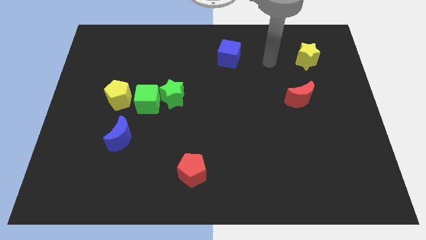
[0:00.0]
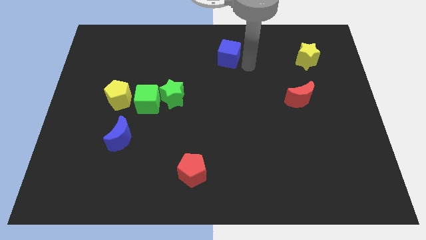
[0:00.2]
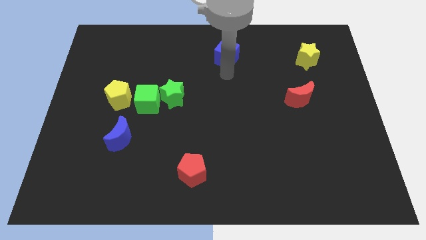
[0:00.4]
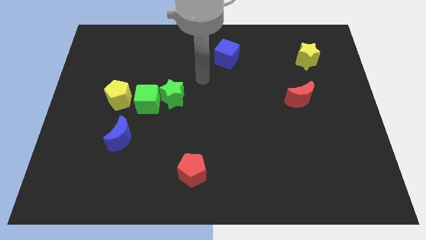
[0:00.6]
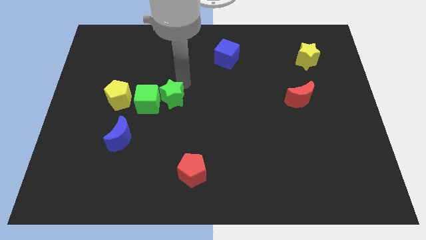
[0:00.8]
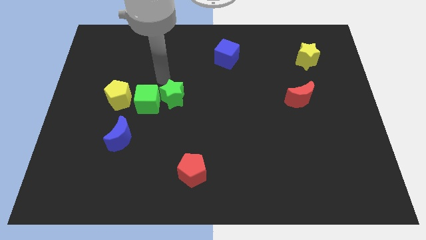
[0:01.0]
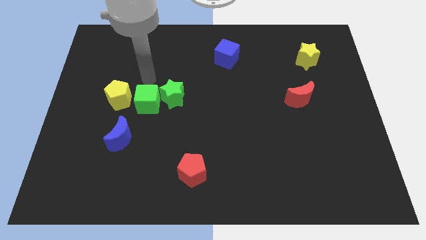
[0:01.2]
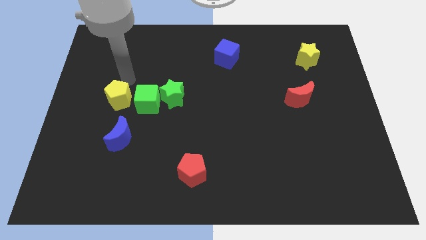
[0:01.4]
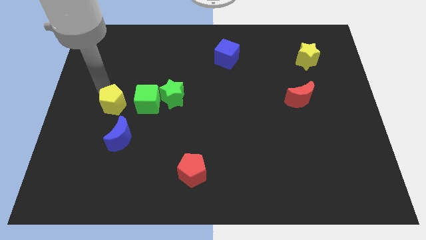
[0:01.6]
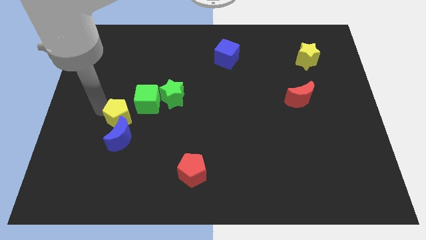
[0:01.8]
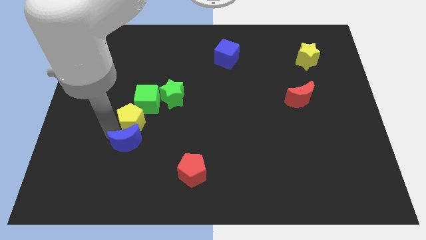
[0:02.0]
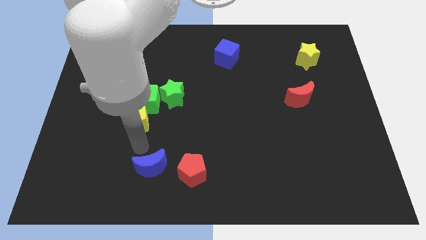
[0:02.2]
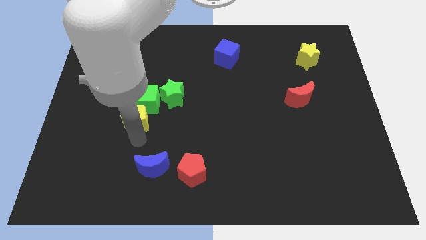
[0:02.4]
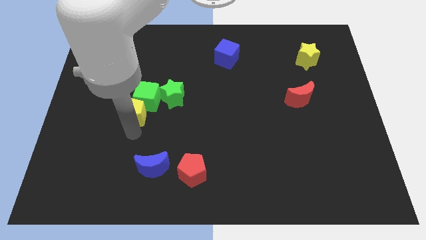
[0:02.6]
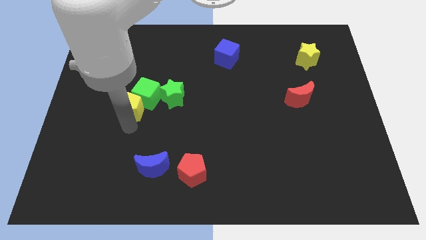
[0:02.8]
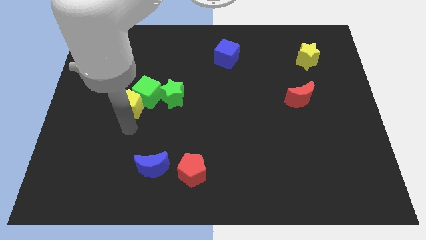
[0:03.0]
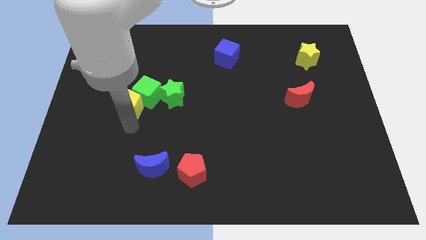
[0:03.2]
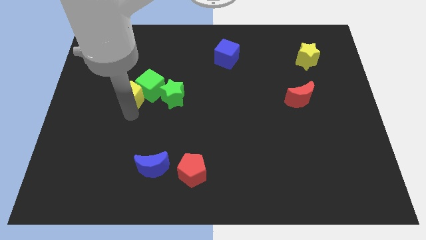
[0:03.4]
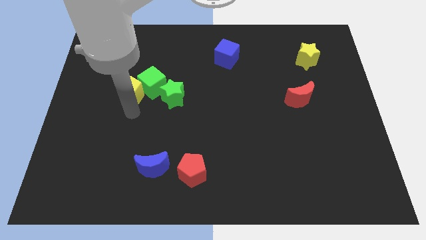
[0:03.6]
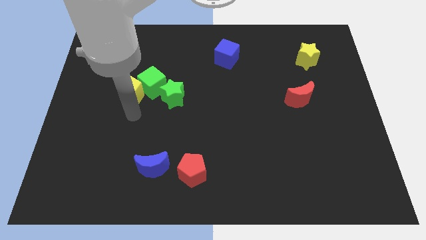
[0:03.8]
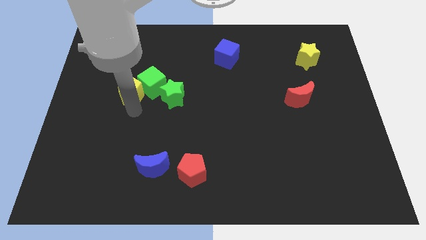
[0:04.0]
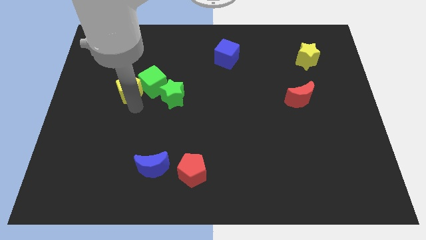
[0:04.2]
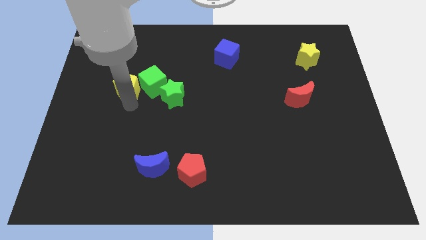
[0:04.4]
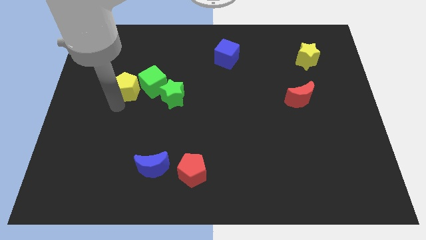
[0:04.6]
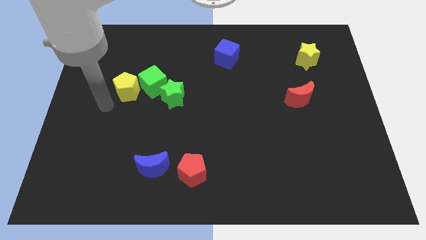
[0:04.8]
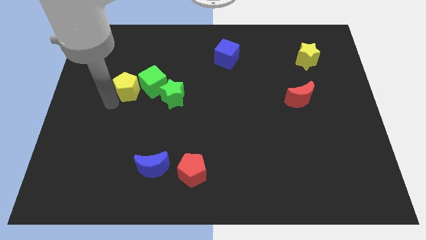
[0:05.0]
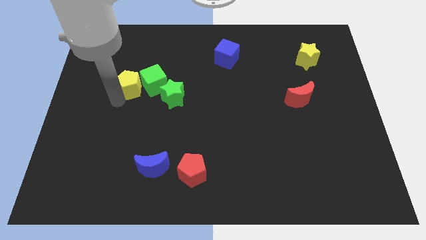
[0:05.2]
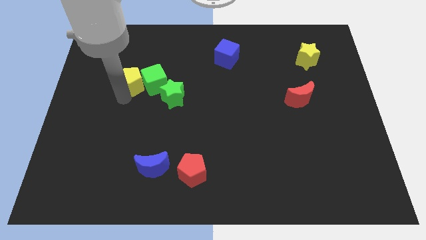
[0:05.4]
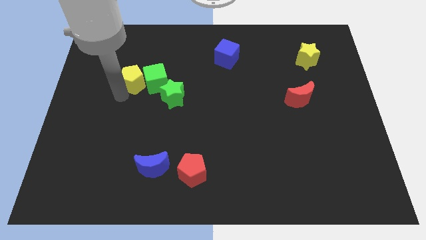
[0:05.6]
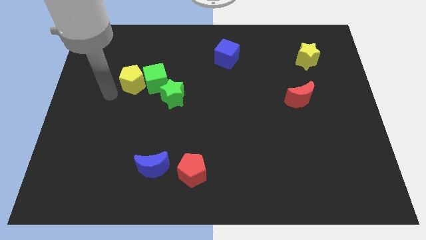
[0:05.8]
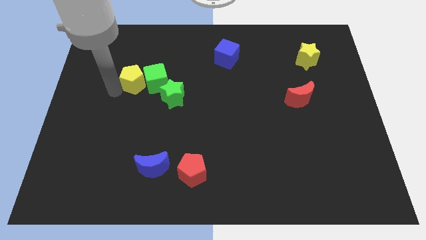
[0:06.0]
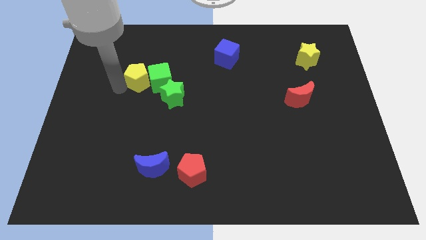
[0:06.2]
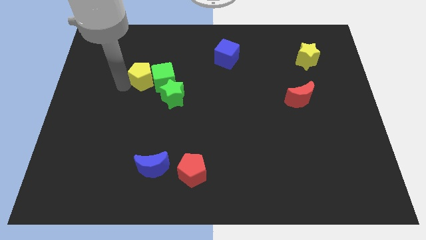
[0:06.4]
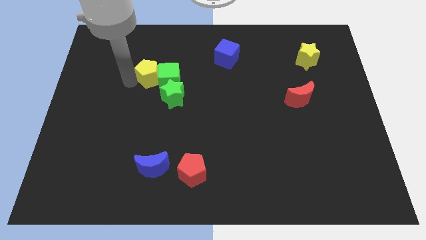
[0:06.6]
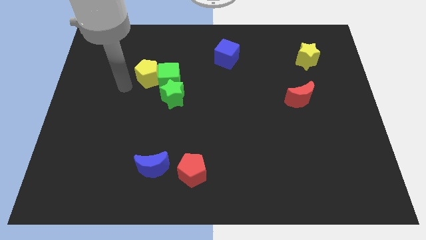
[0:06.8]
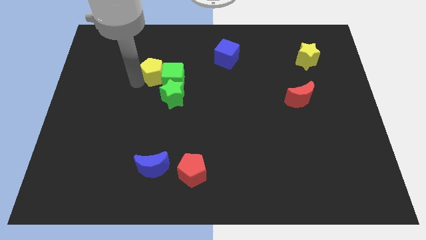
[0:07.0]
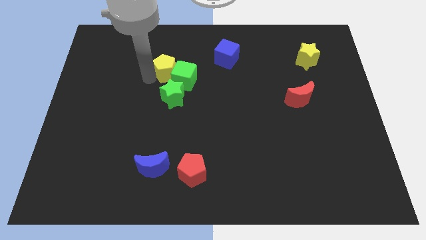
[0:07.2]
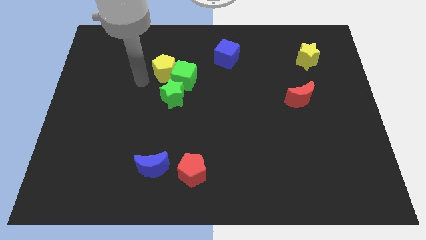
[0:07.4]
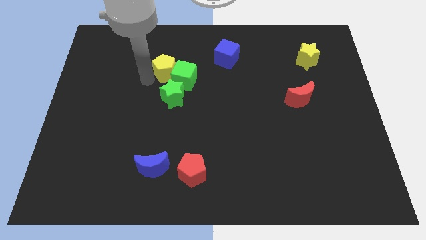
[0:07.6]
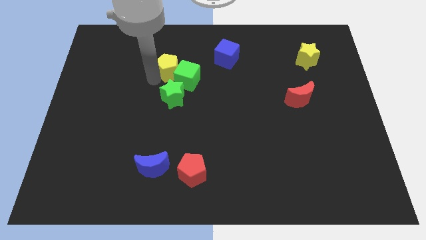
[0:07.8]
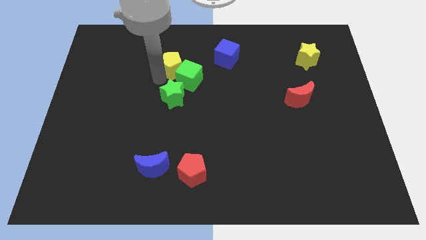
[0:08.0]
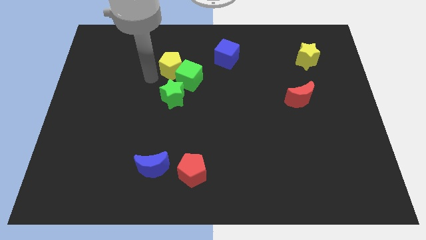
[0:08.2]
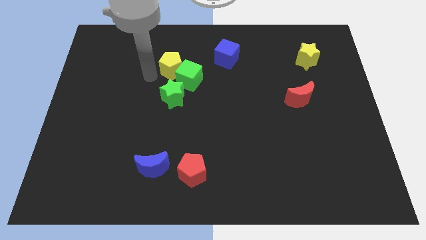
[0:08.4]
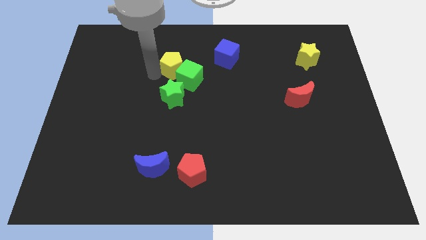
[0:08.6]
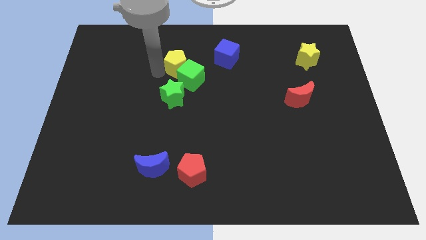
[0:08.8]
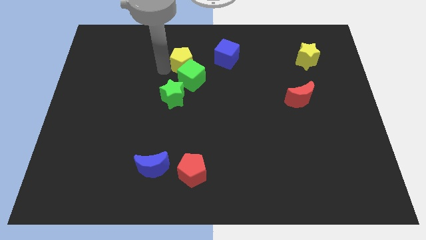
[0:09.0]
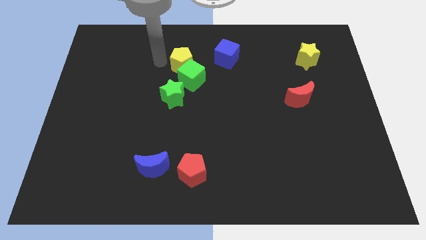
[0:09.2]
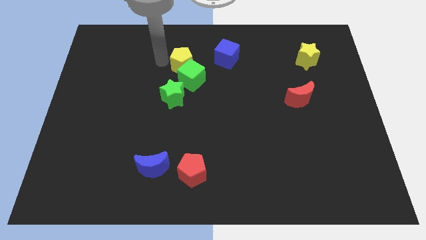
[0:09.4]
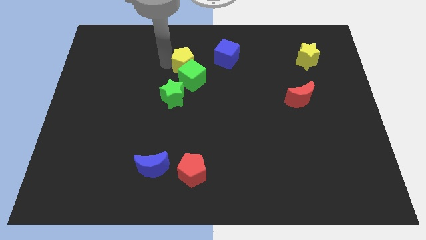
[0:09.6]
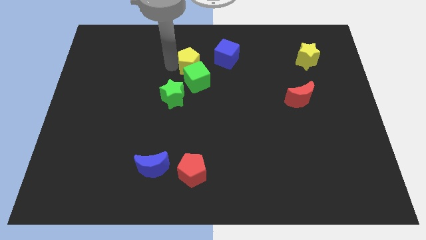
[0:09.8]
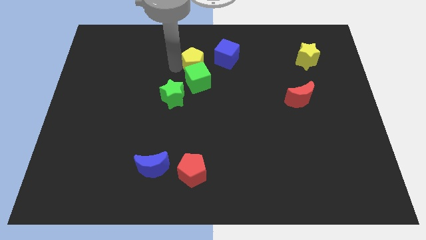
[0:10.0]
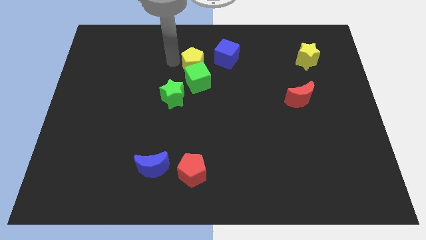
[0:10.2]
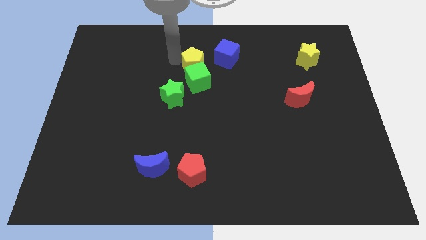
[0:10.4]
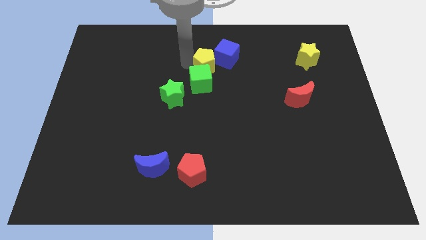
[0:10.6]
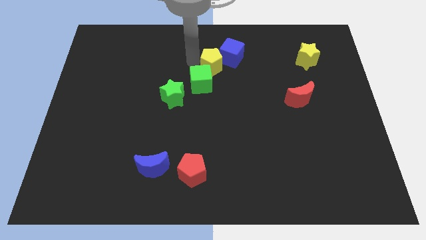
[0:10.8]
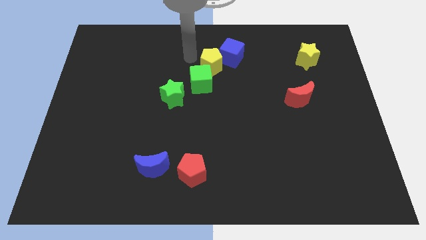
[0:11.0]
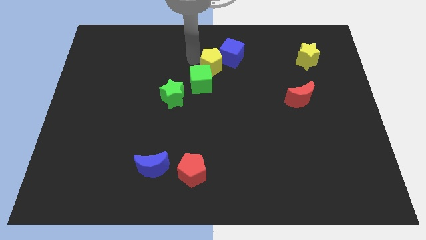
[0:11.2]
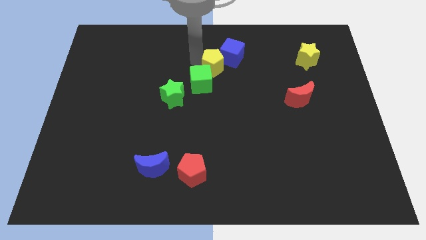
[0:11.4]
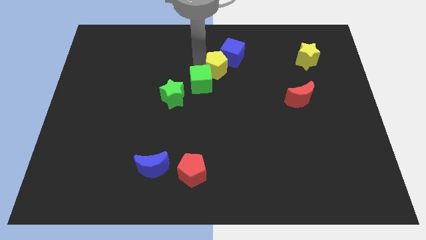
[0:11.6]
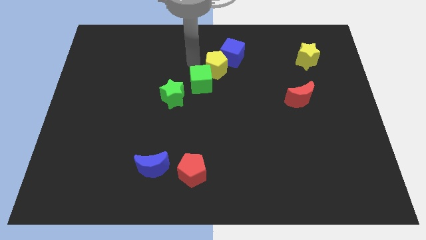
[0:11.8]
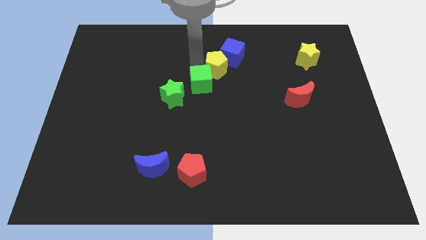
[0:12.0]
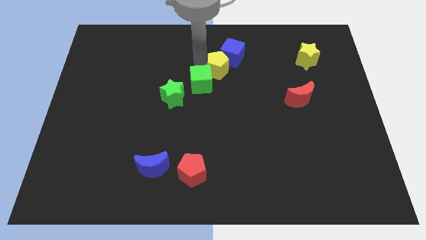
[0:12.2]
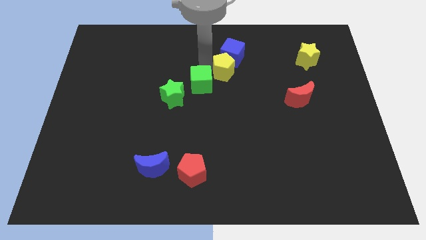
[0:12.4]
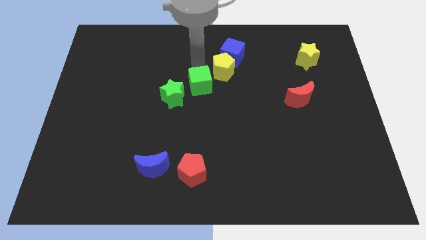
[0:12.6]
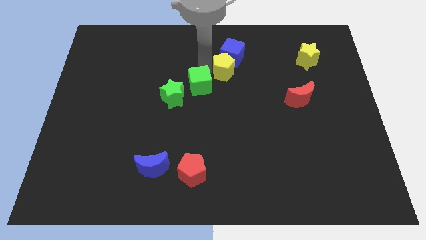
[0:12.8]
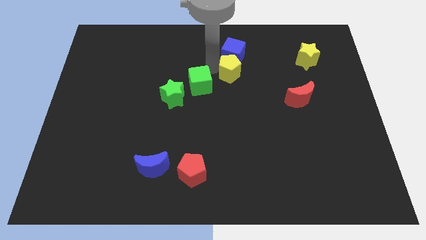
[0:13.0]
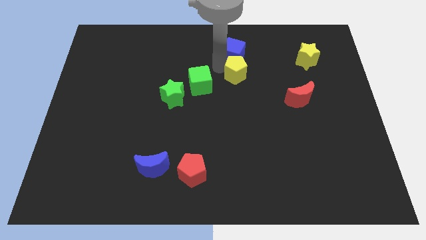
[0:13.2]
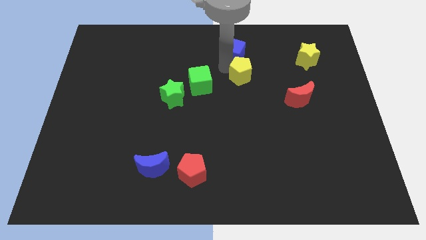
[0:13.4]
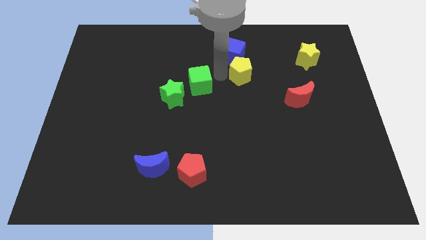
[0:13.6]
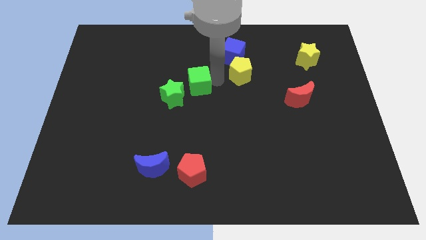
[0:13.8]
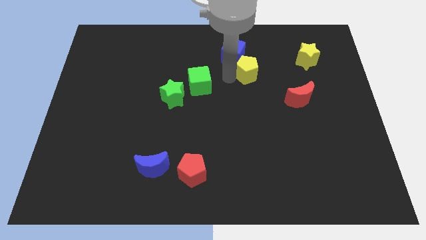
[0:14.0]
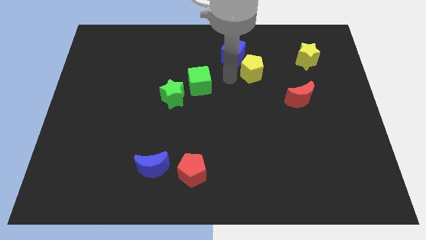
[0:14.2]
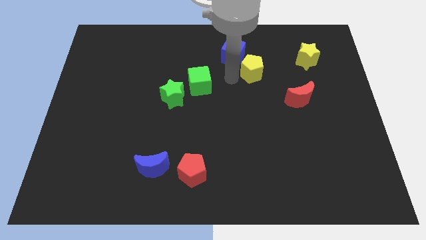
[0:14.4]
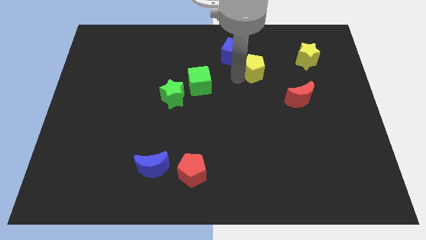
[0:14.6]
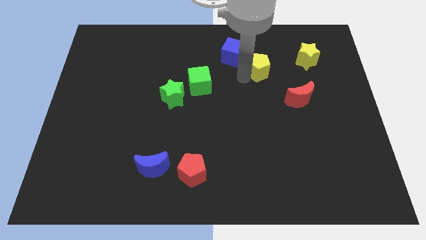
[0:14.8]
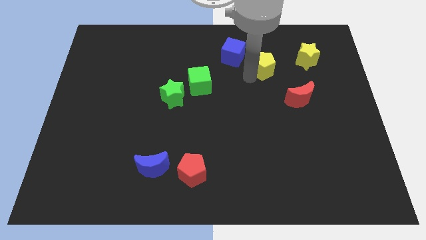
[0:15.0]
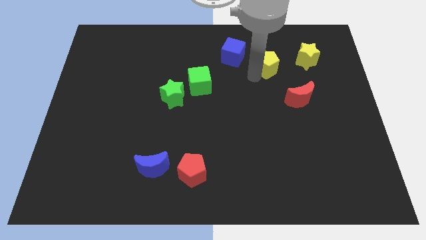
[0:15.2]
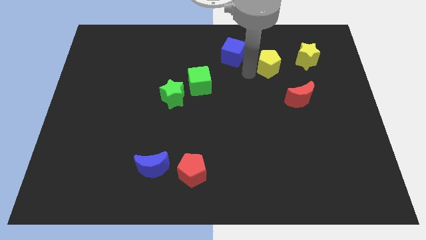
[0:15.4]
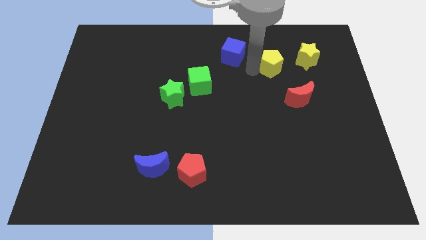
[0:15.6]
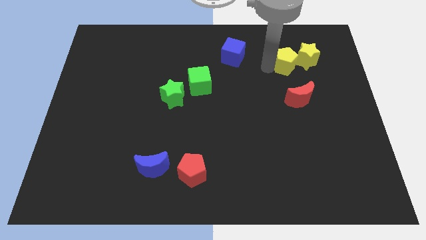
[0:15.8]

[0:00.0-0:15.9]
slide the yellow pentagon towards the yellow star
